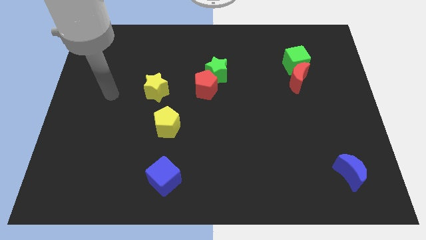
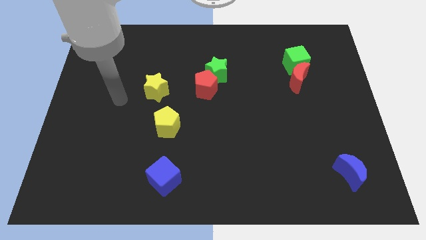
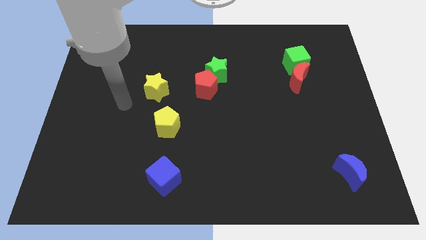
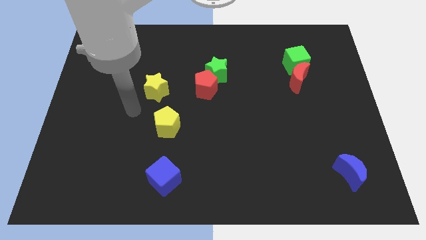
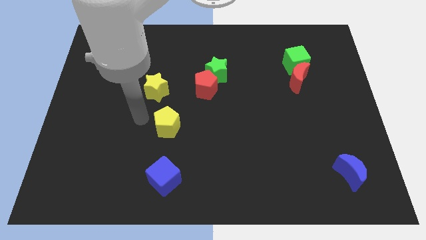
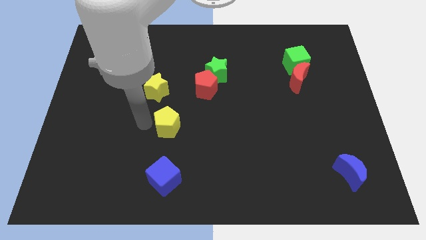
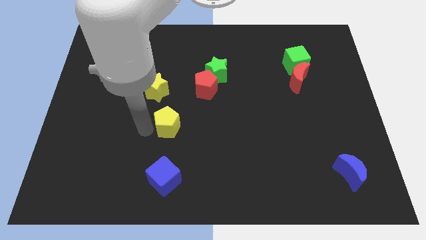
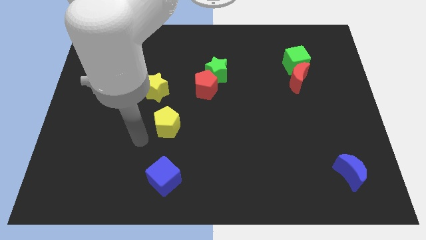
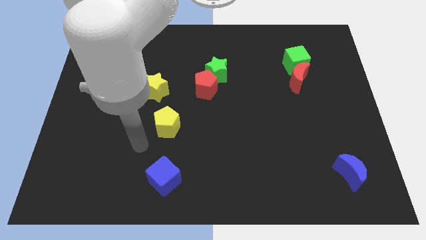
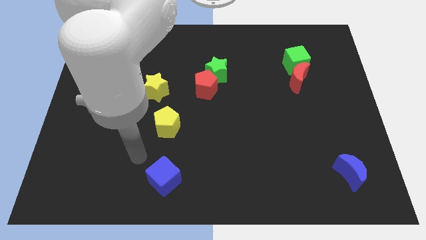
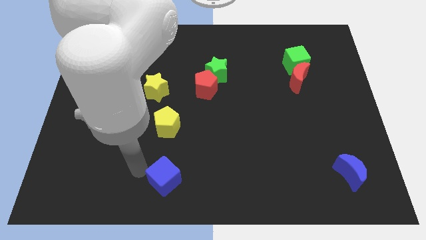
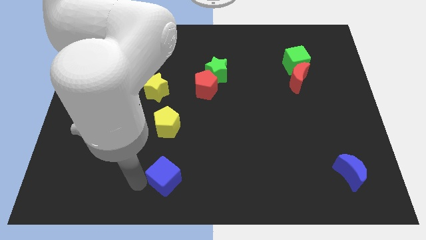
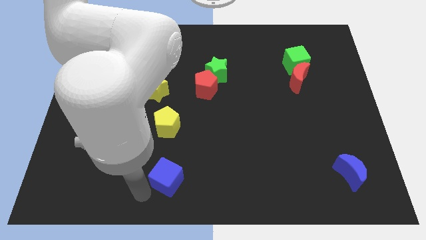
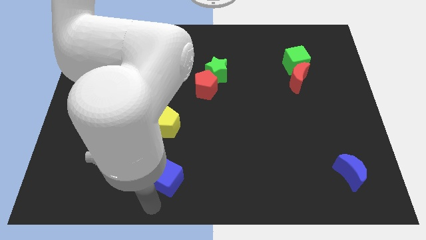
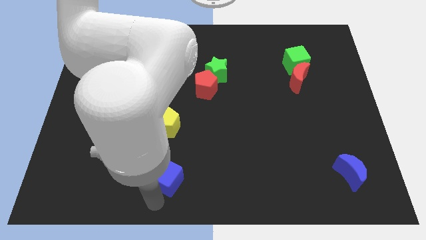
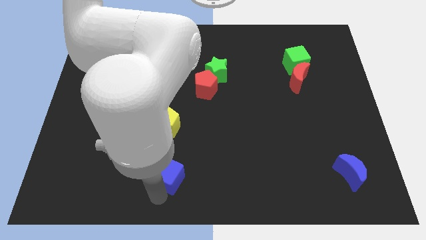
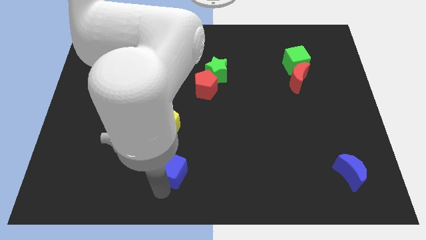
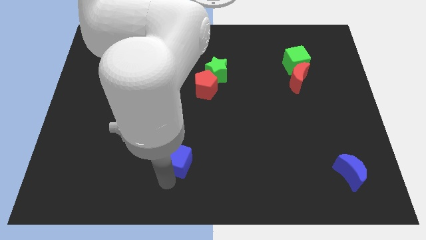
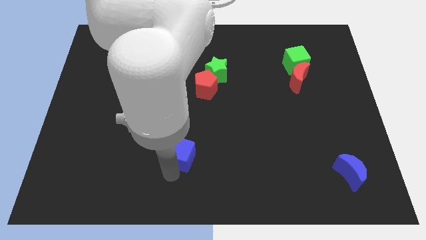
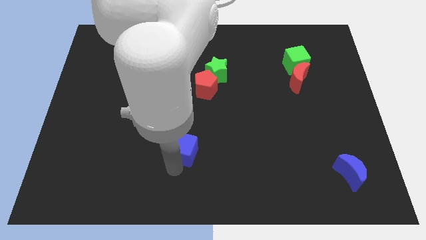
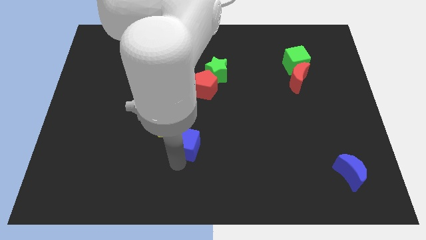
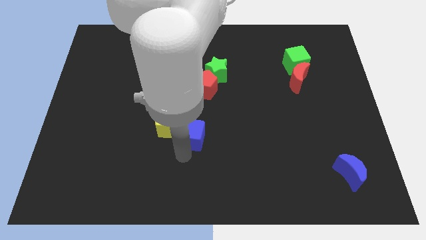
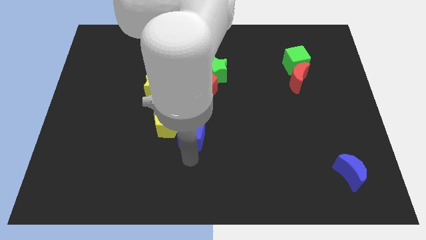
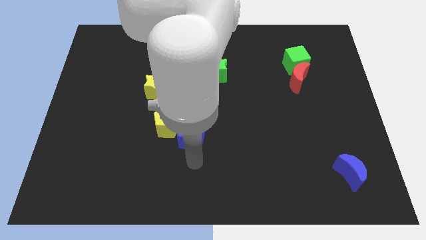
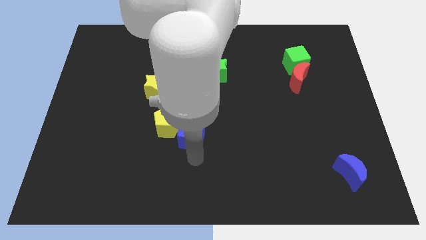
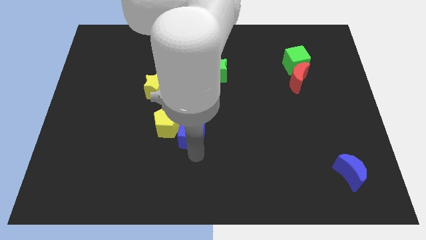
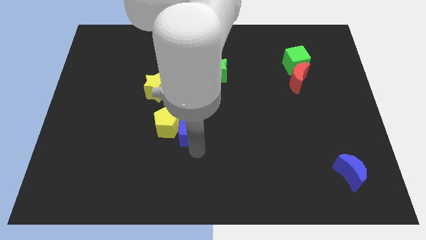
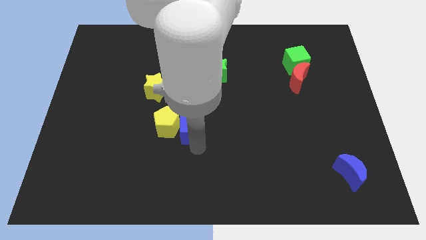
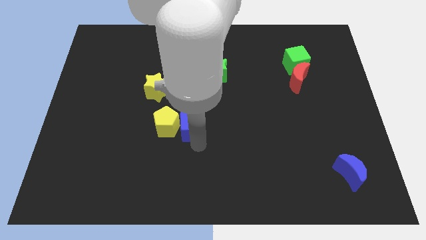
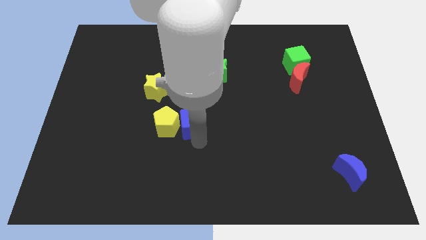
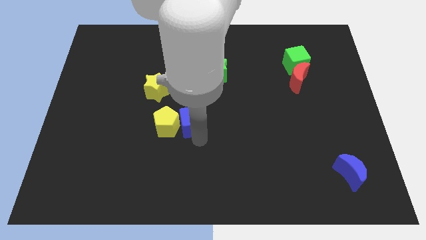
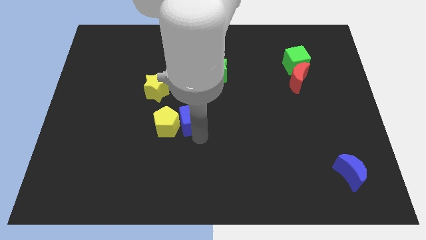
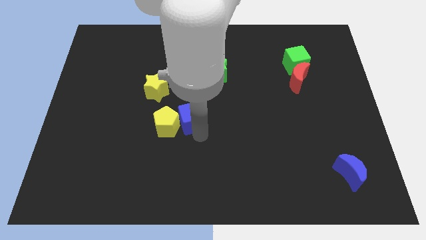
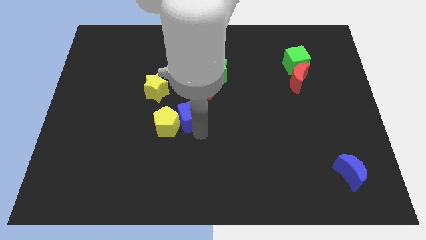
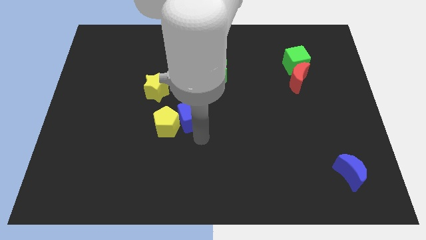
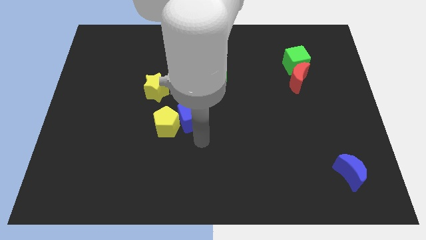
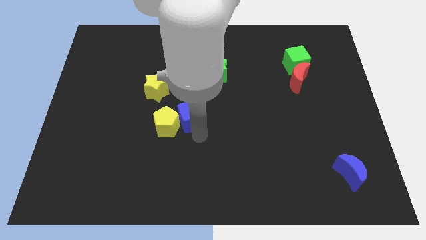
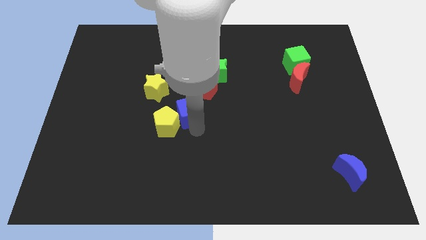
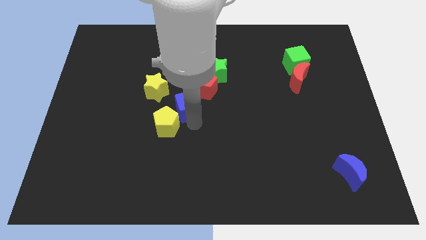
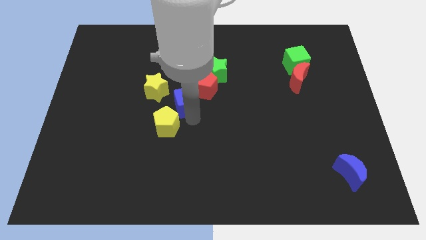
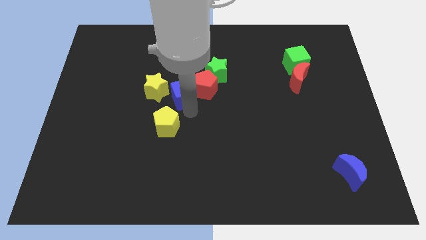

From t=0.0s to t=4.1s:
slide the blue cube upwards

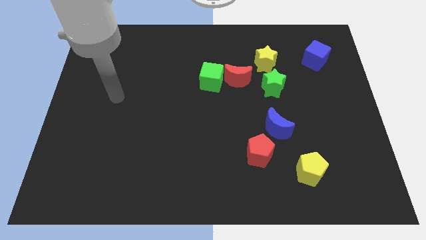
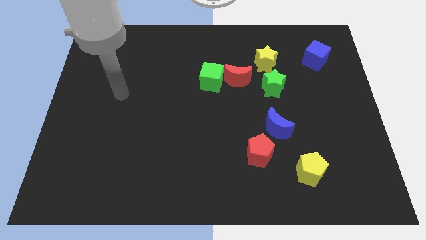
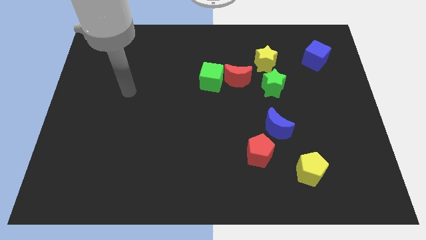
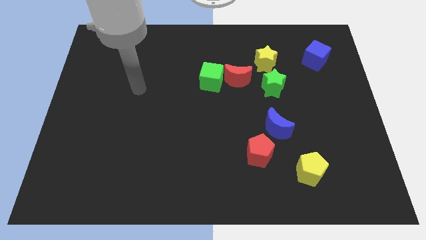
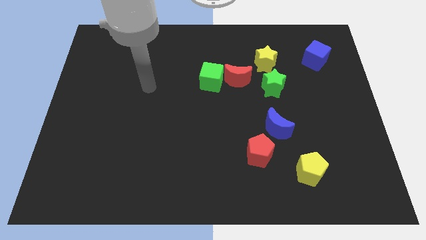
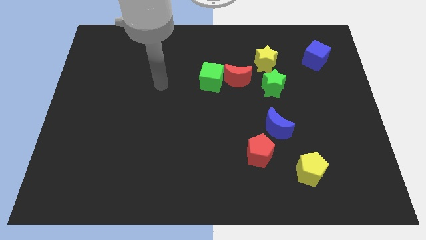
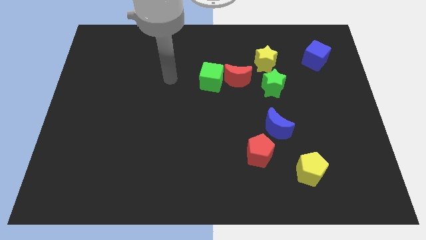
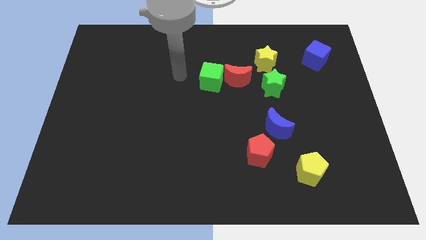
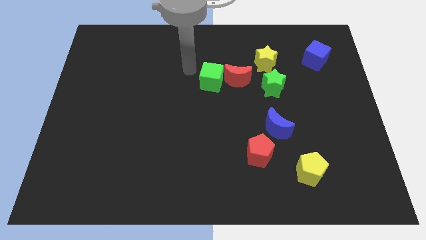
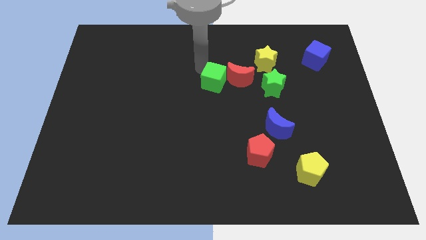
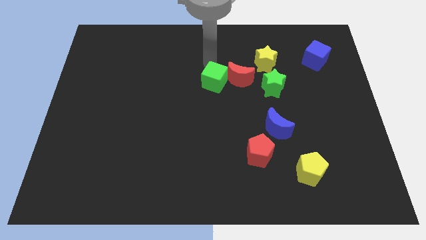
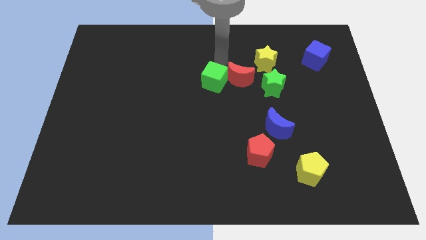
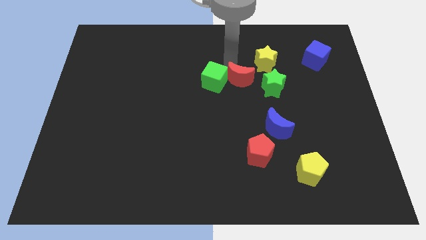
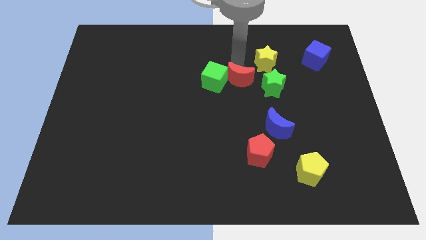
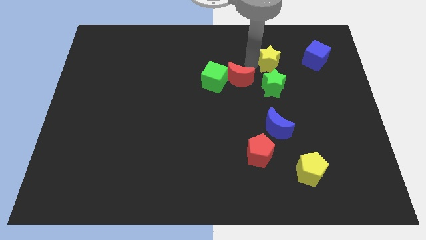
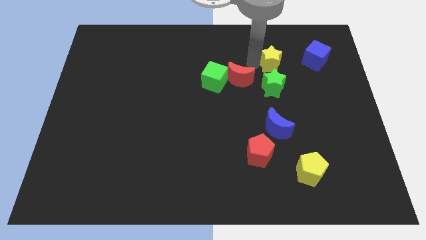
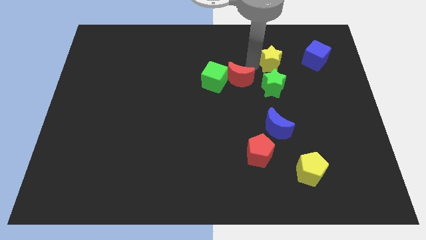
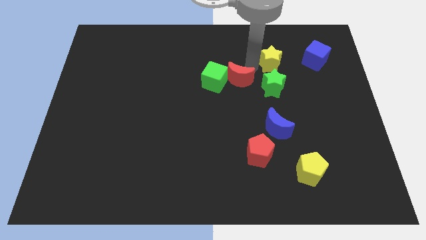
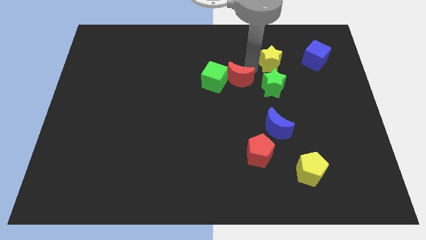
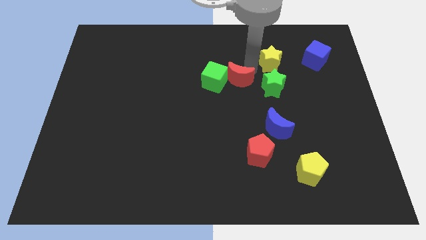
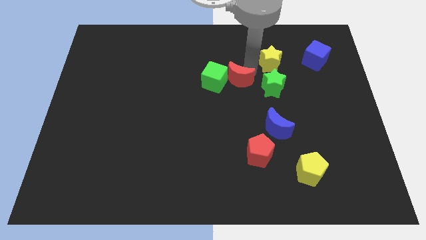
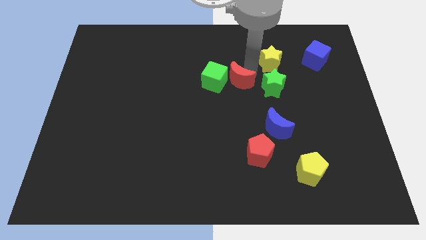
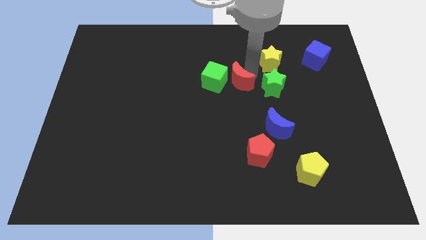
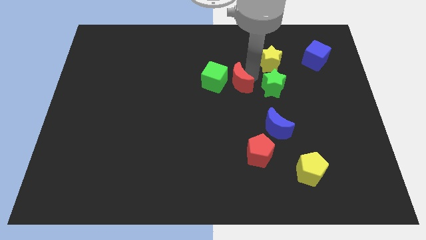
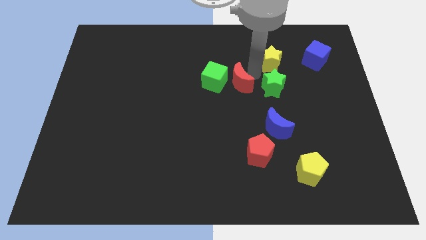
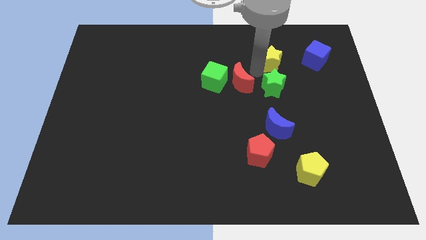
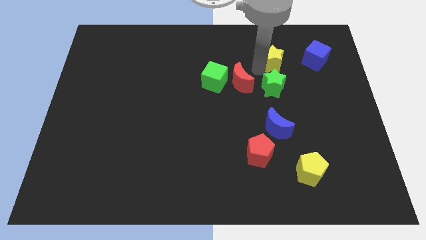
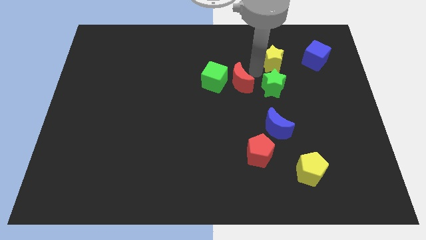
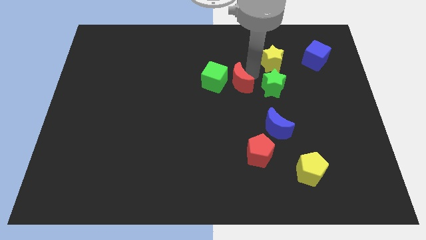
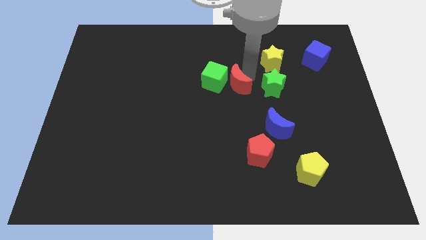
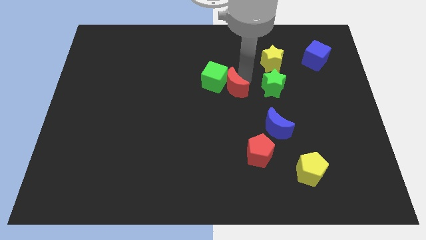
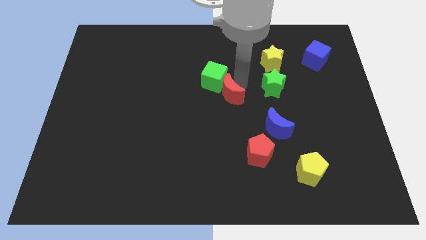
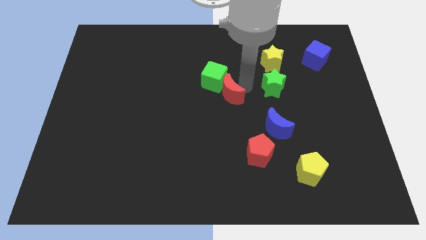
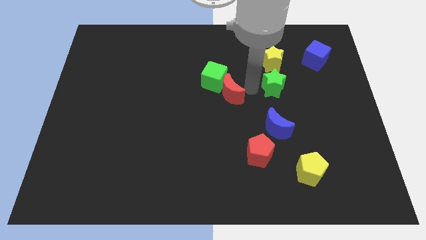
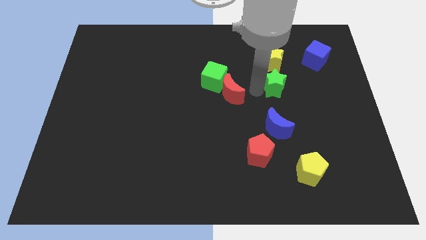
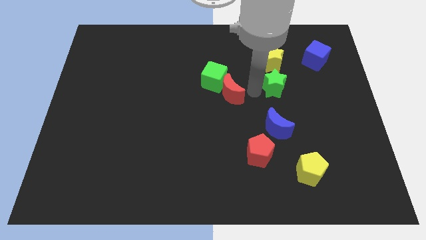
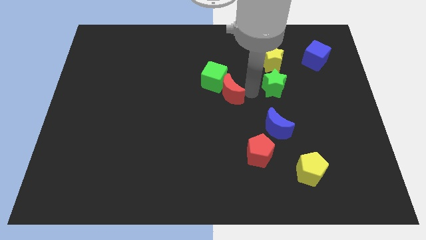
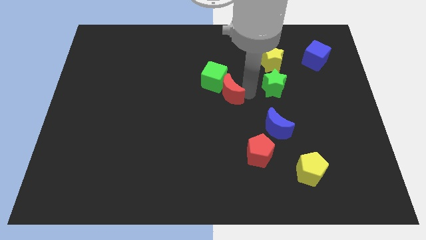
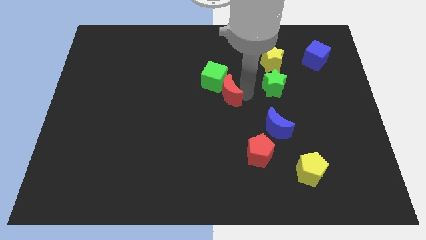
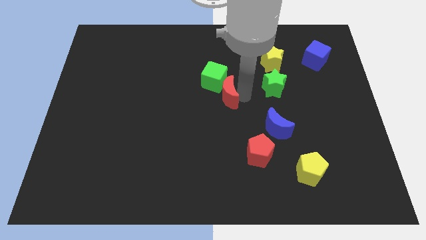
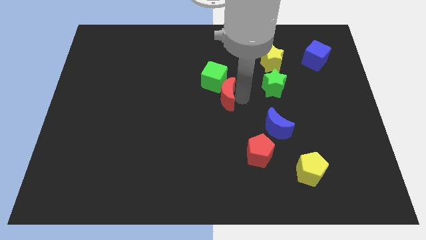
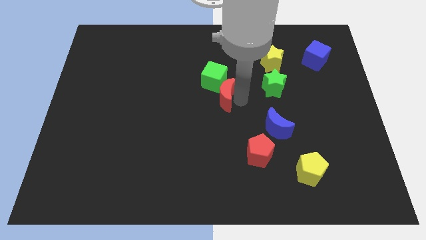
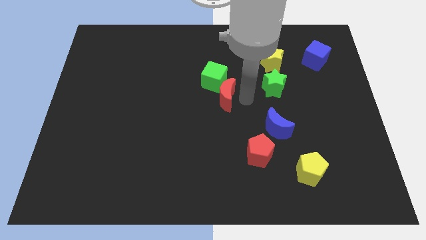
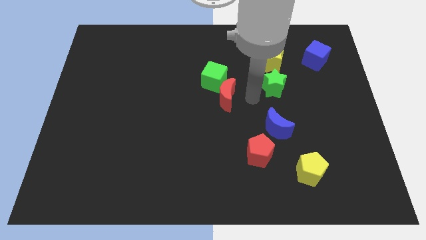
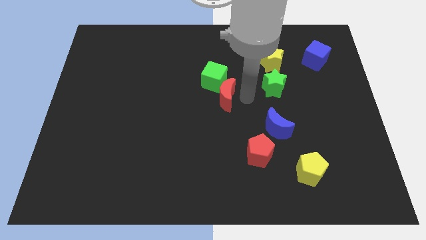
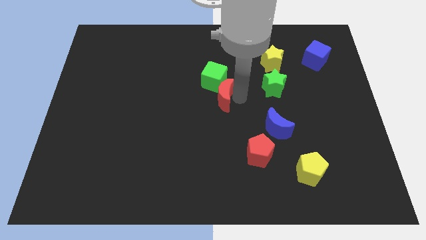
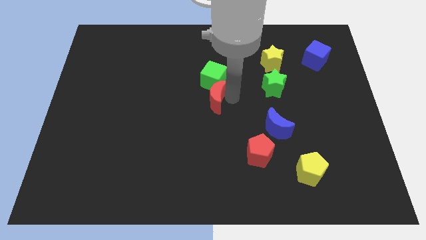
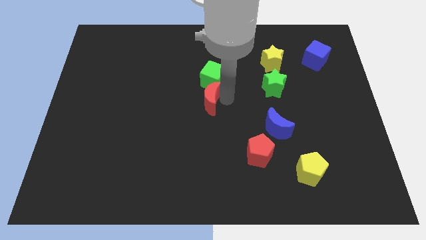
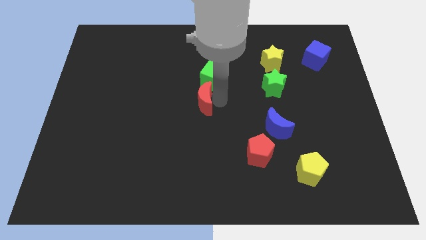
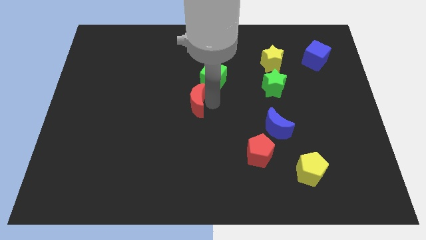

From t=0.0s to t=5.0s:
move the red moon slightly left
